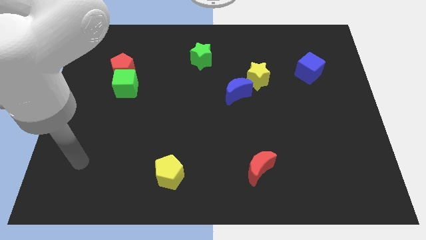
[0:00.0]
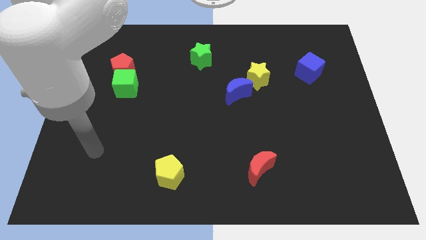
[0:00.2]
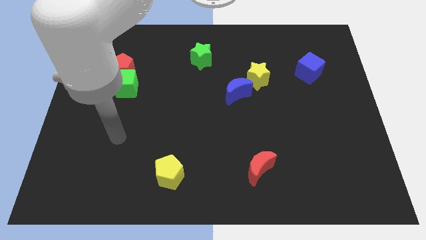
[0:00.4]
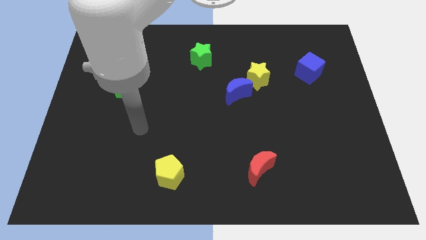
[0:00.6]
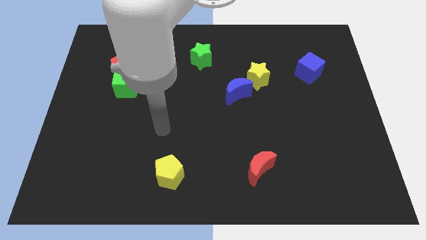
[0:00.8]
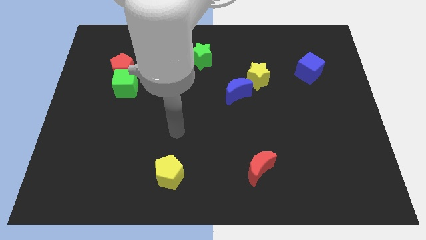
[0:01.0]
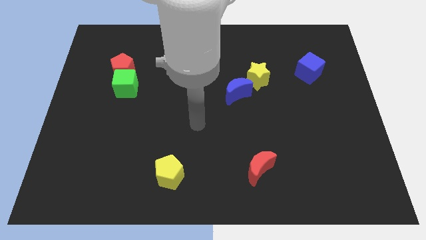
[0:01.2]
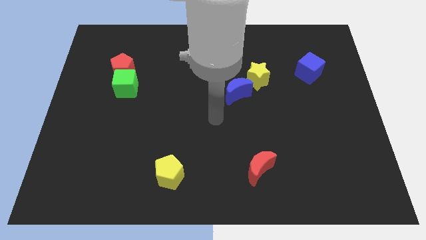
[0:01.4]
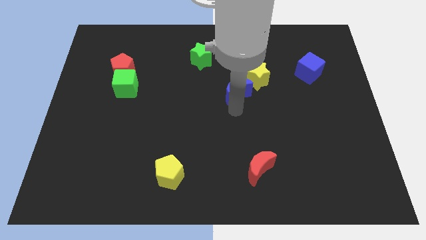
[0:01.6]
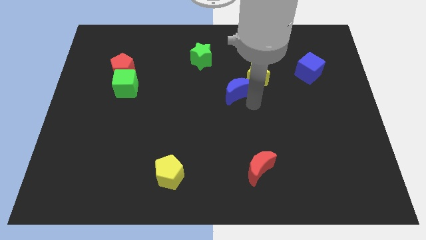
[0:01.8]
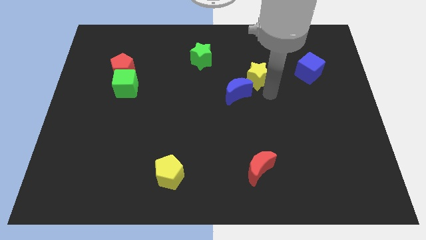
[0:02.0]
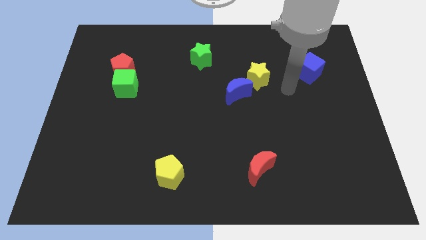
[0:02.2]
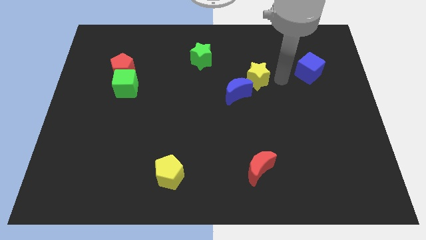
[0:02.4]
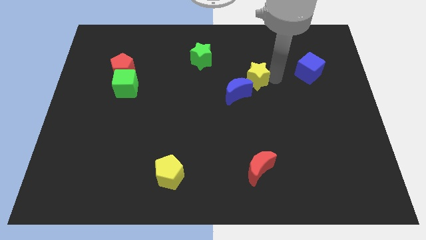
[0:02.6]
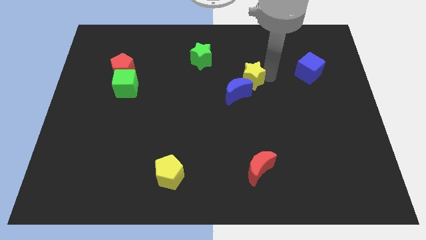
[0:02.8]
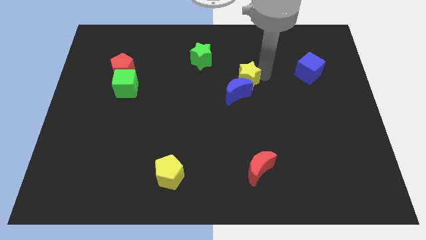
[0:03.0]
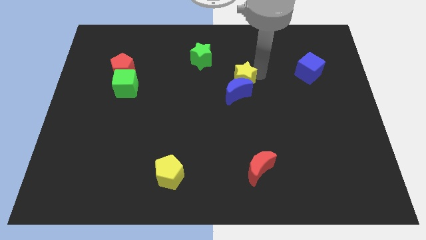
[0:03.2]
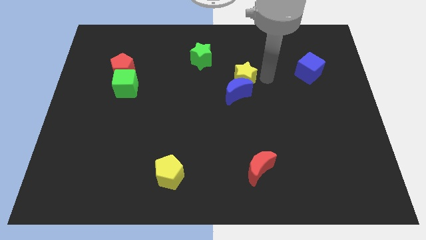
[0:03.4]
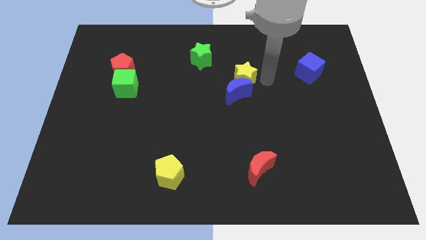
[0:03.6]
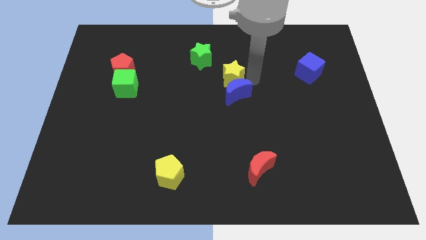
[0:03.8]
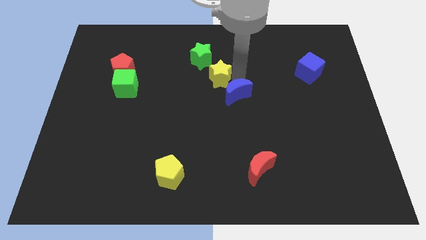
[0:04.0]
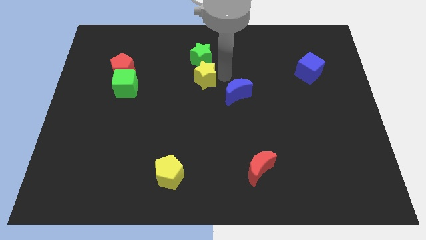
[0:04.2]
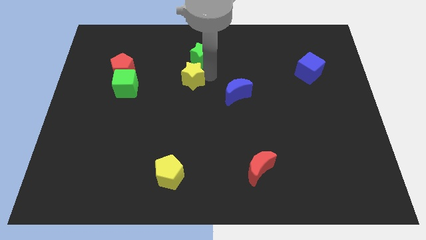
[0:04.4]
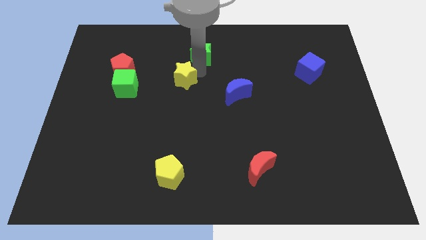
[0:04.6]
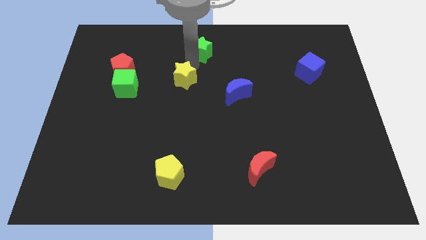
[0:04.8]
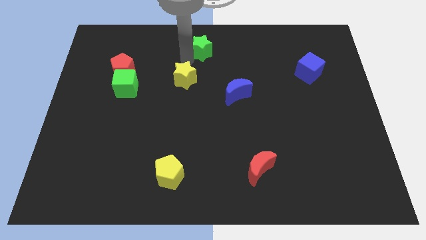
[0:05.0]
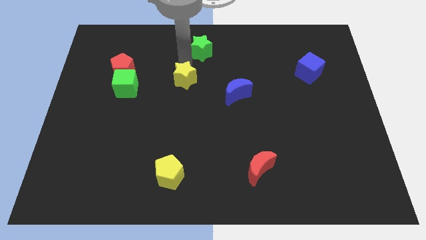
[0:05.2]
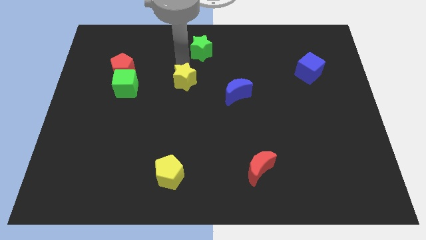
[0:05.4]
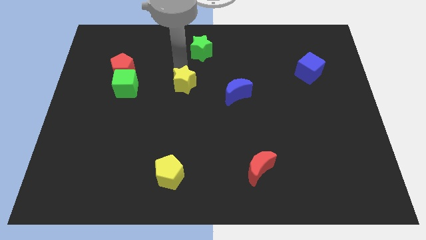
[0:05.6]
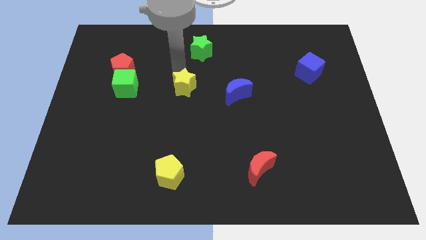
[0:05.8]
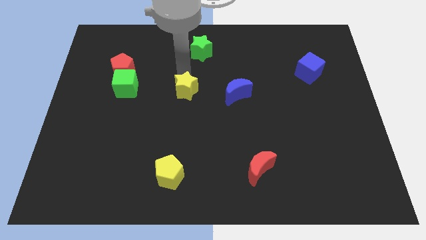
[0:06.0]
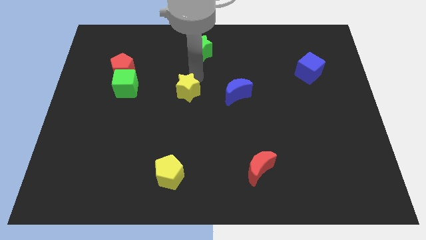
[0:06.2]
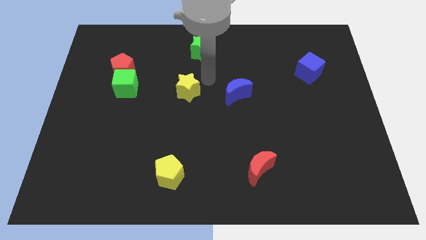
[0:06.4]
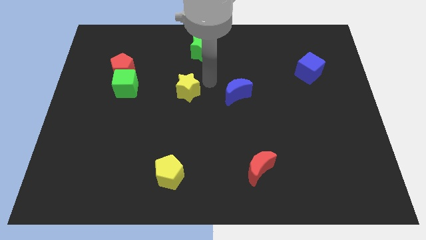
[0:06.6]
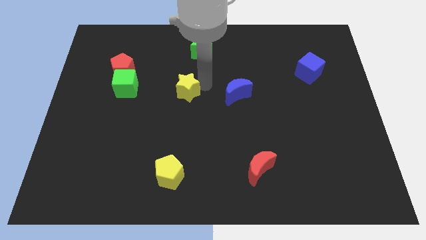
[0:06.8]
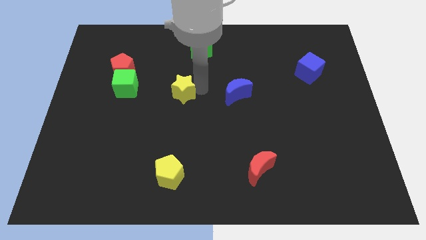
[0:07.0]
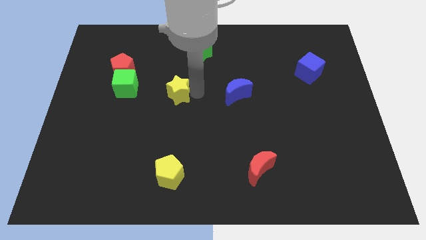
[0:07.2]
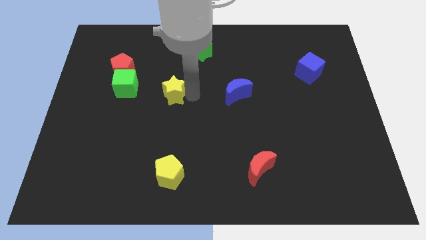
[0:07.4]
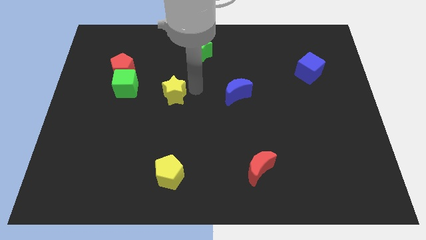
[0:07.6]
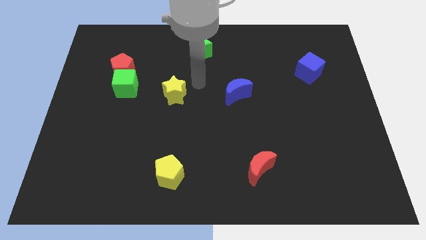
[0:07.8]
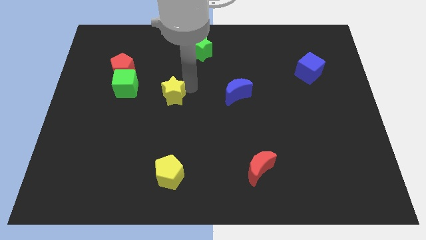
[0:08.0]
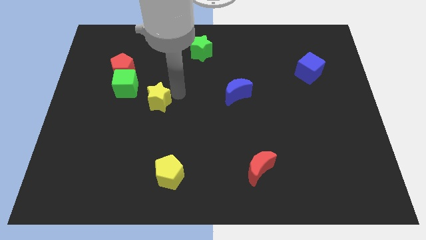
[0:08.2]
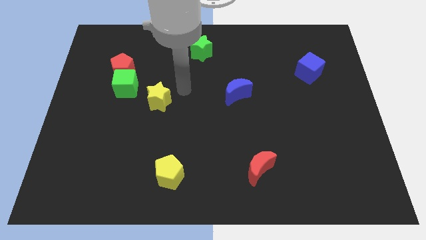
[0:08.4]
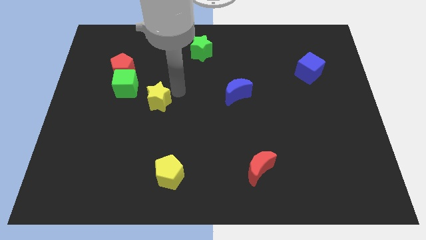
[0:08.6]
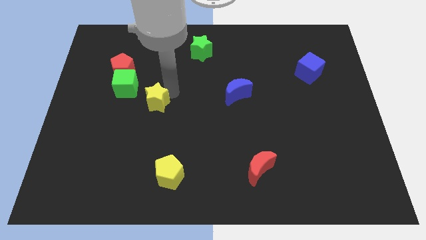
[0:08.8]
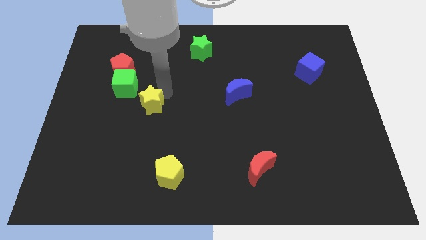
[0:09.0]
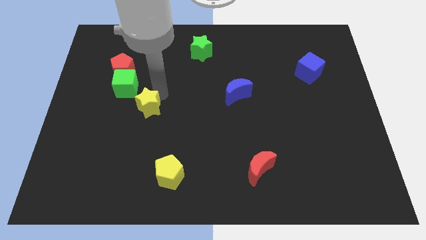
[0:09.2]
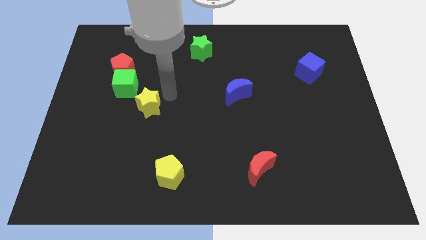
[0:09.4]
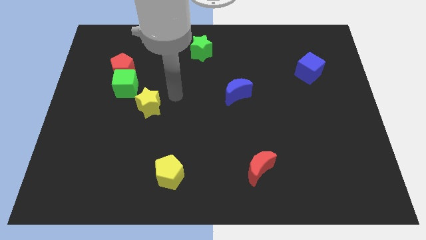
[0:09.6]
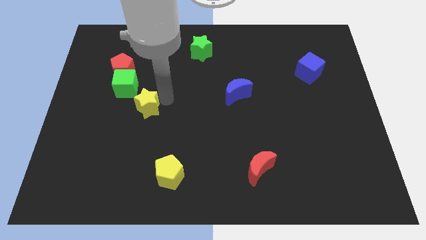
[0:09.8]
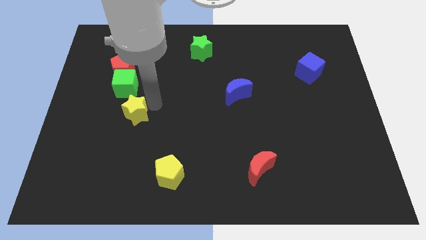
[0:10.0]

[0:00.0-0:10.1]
put the yellow star below the green cube

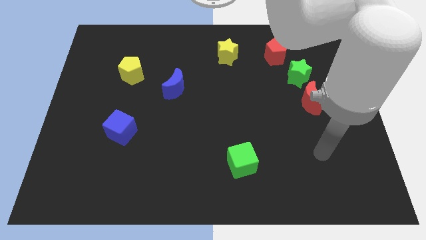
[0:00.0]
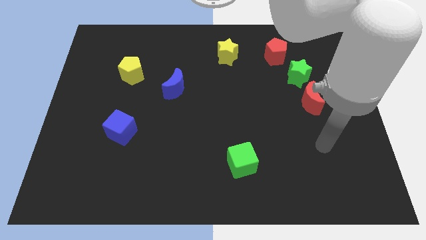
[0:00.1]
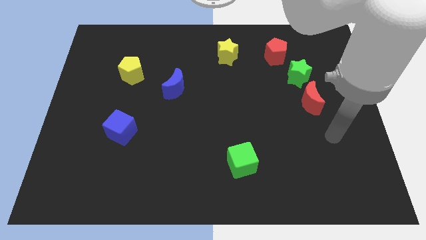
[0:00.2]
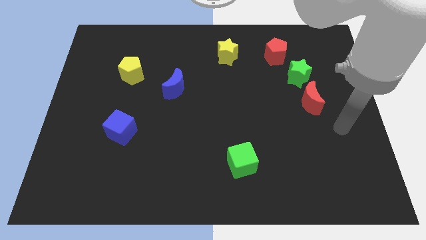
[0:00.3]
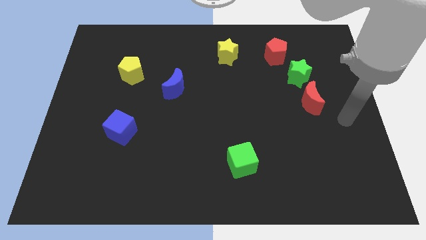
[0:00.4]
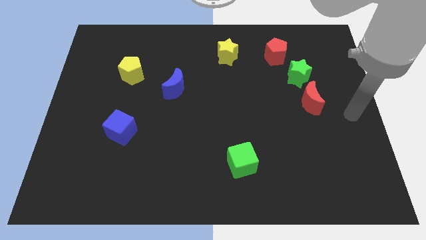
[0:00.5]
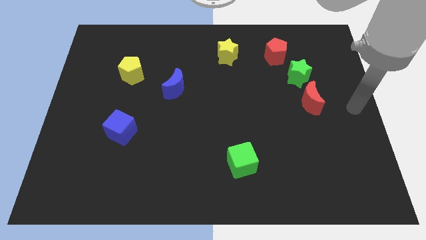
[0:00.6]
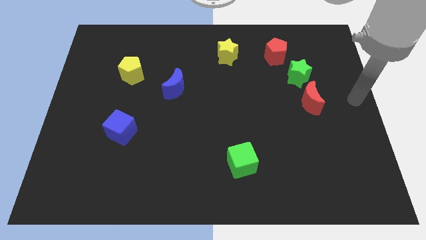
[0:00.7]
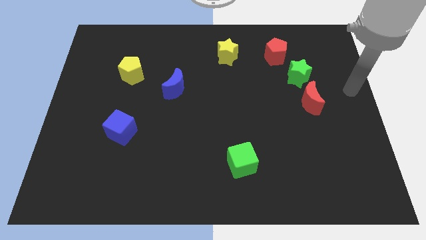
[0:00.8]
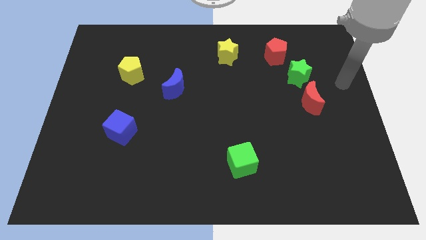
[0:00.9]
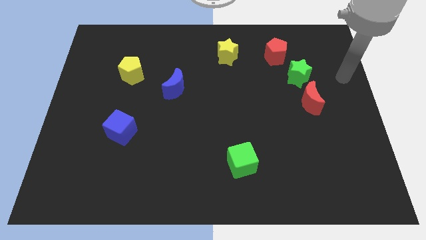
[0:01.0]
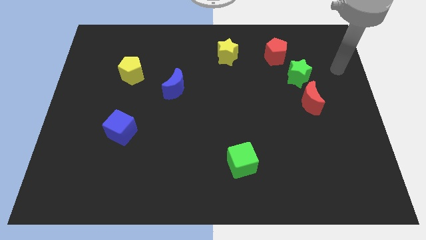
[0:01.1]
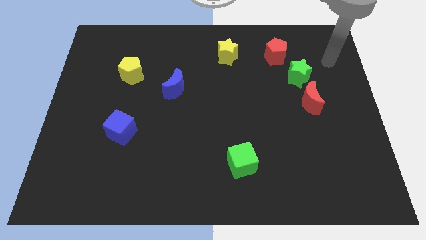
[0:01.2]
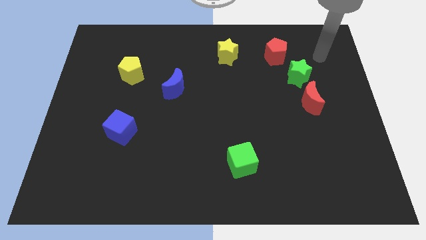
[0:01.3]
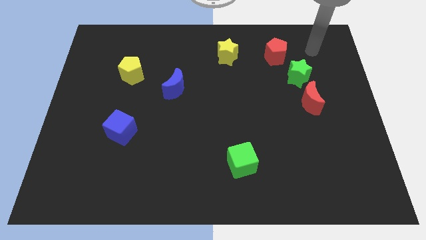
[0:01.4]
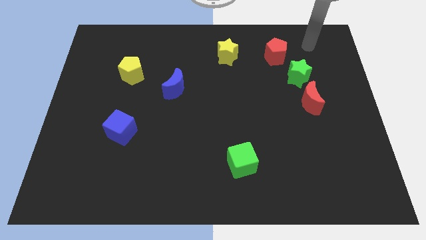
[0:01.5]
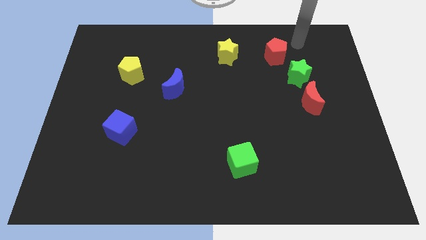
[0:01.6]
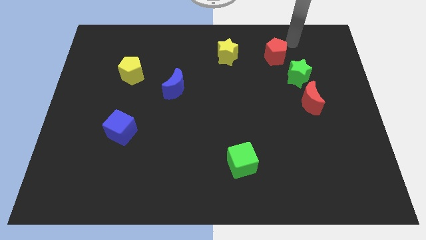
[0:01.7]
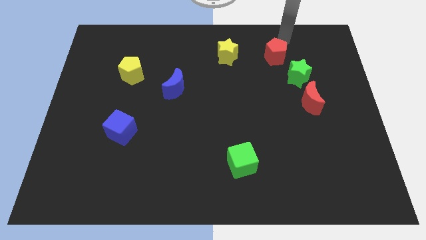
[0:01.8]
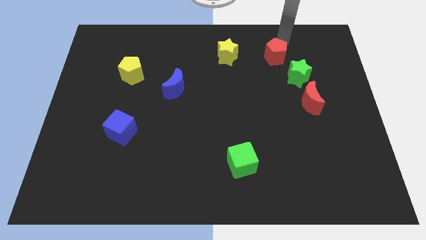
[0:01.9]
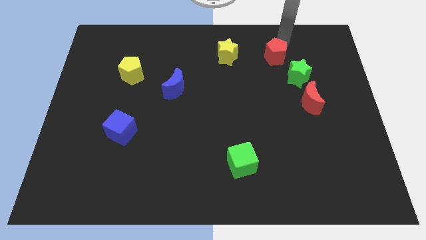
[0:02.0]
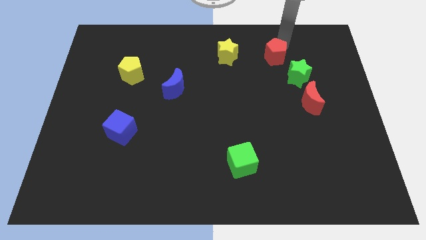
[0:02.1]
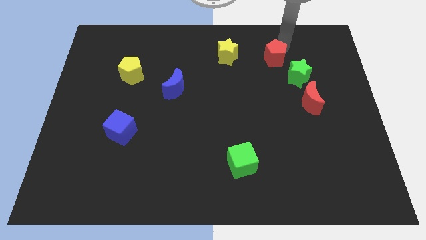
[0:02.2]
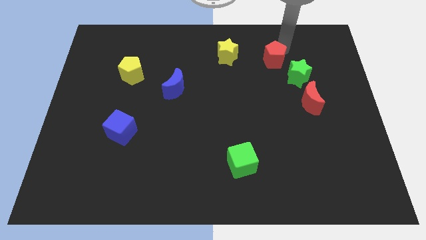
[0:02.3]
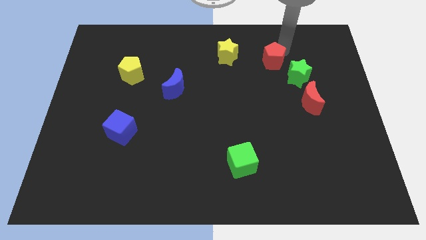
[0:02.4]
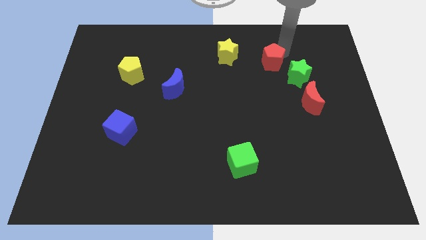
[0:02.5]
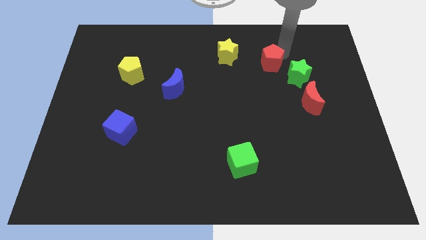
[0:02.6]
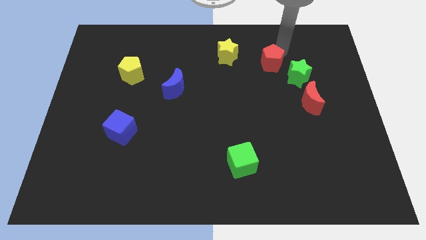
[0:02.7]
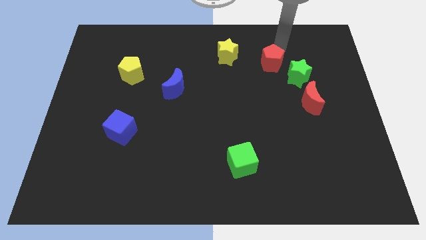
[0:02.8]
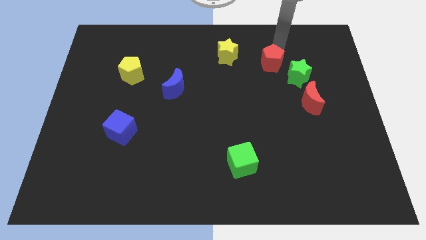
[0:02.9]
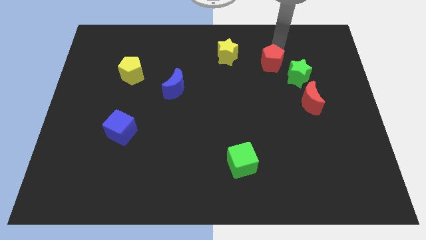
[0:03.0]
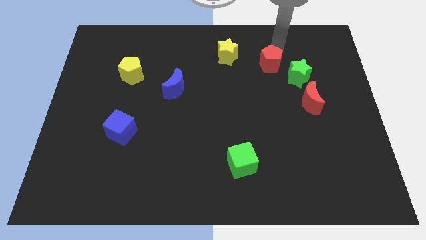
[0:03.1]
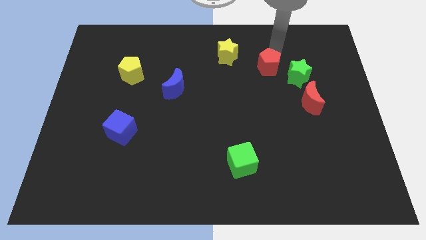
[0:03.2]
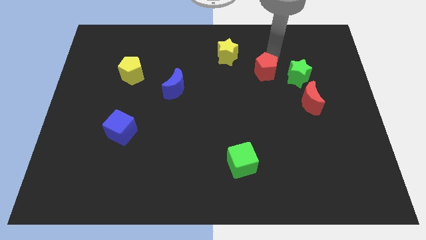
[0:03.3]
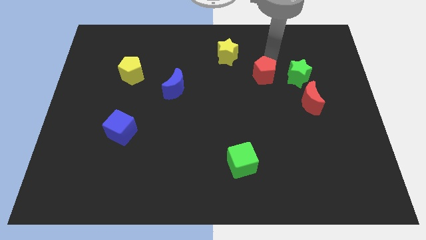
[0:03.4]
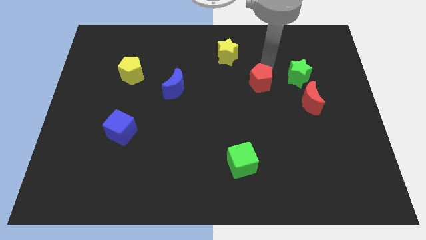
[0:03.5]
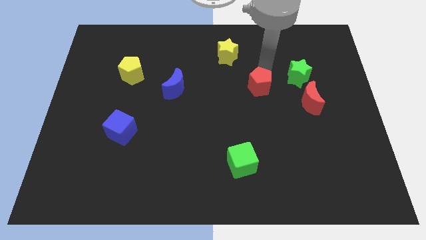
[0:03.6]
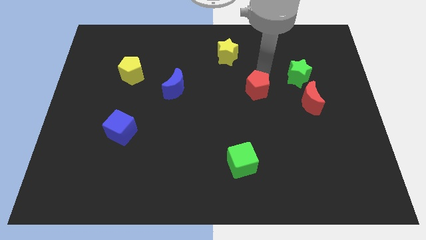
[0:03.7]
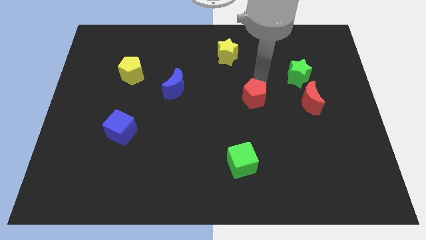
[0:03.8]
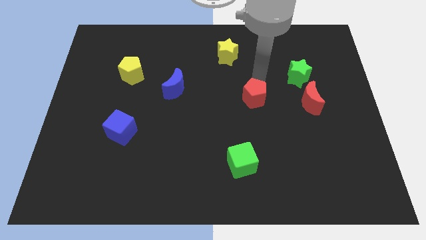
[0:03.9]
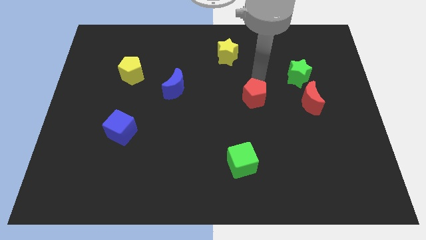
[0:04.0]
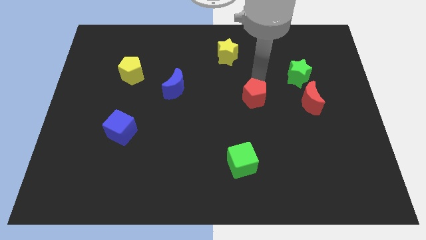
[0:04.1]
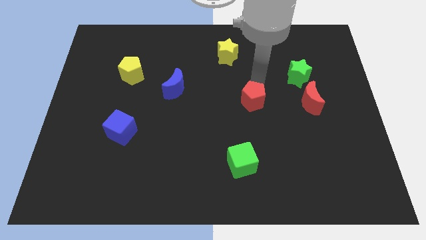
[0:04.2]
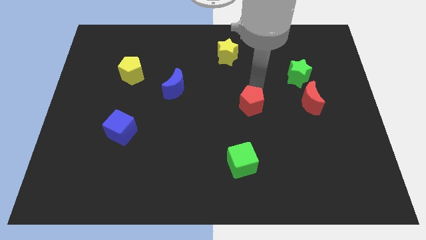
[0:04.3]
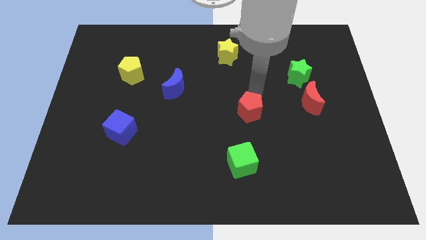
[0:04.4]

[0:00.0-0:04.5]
put the red pentagon to the top side of the green cube
